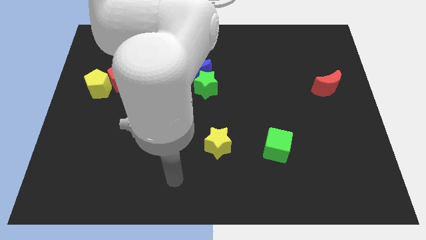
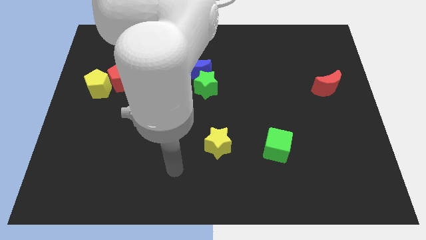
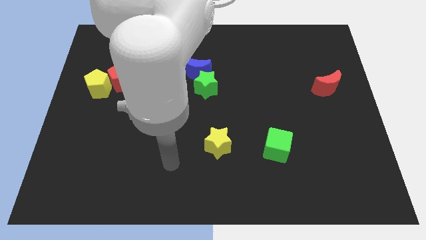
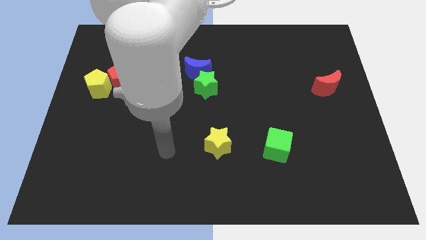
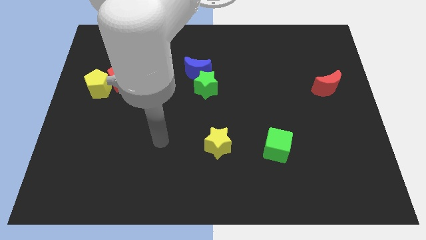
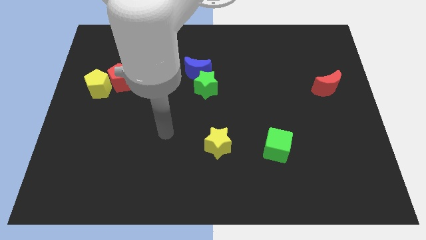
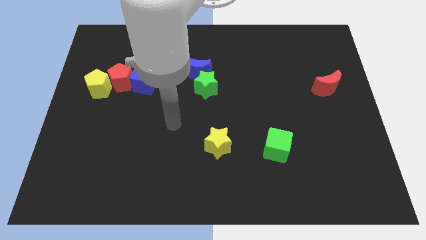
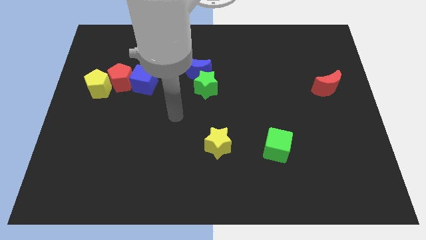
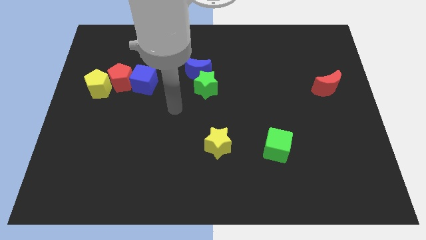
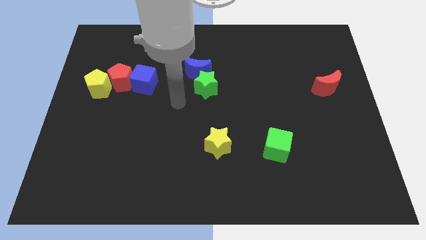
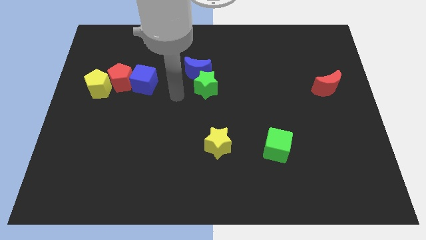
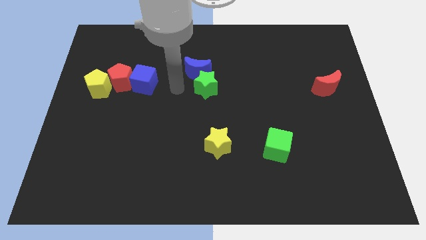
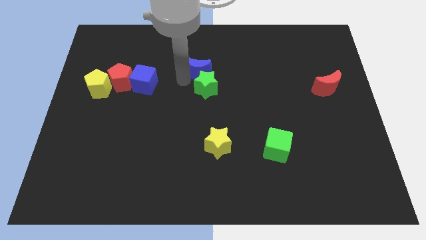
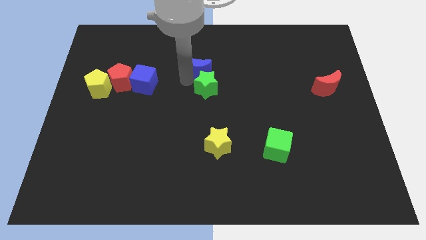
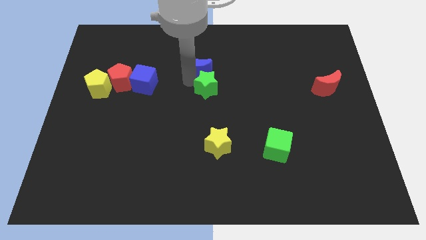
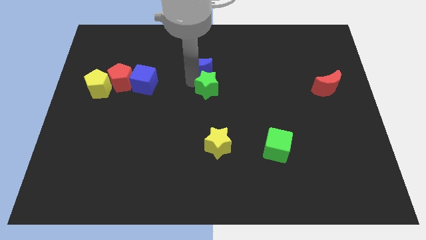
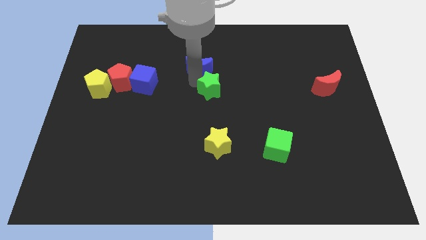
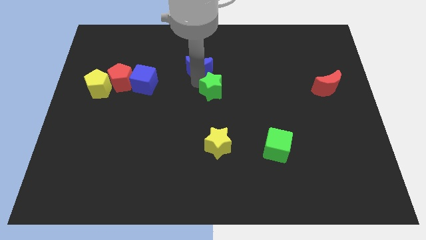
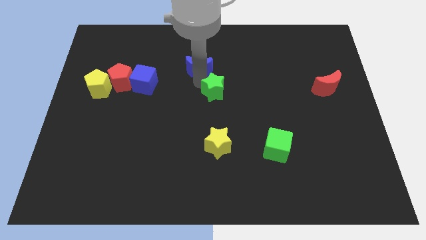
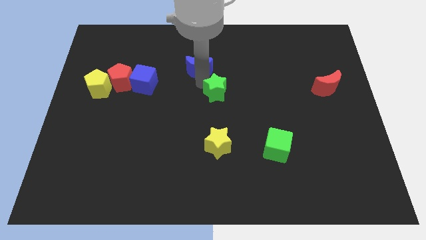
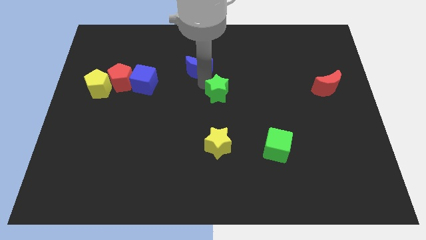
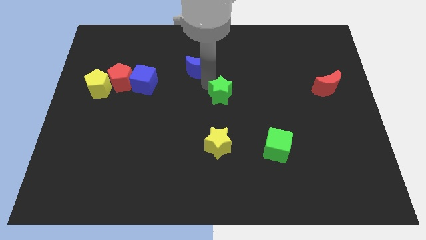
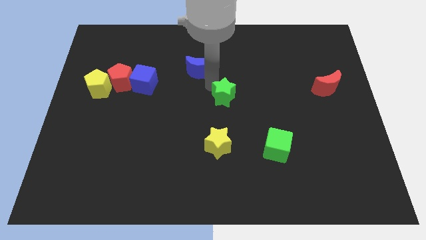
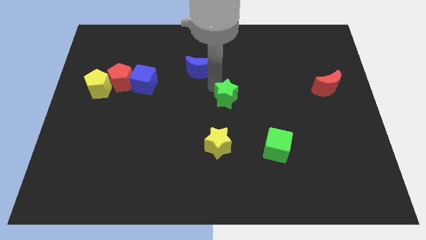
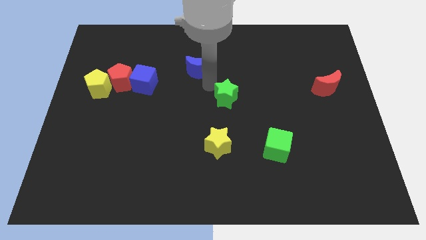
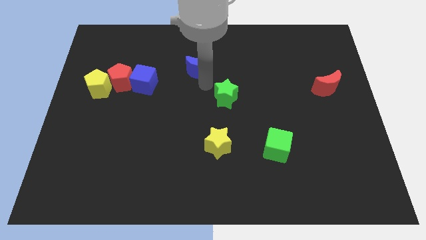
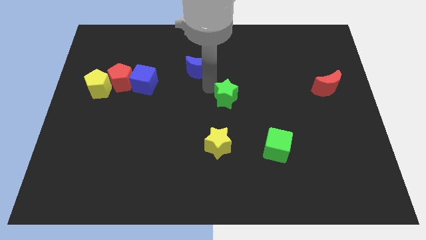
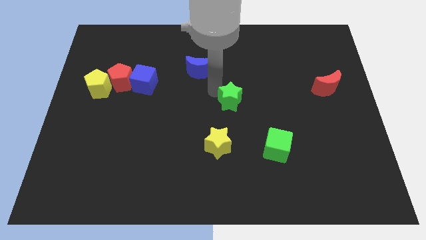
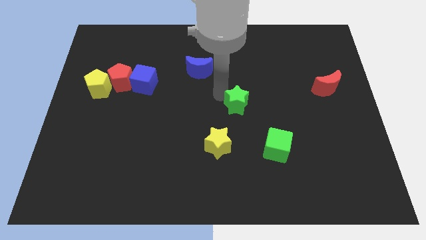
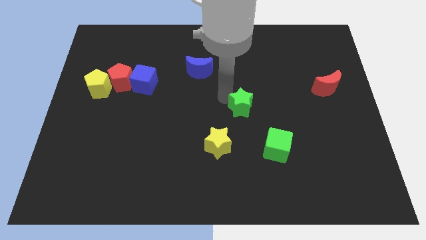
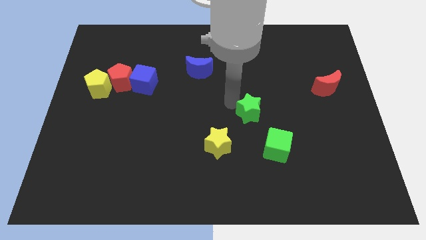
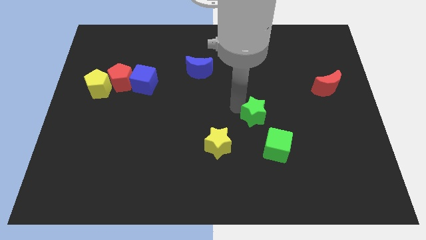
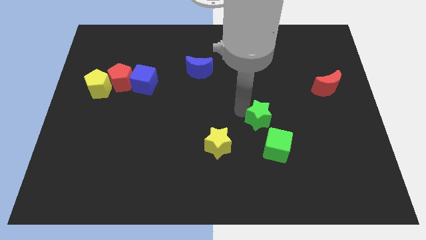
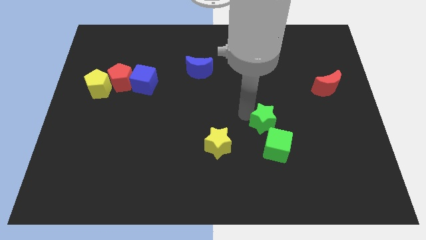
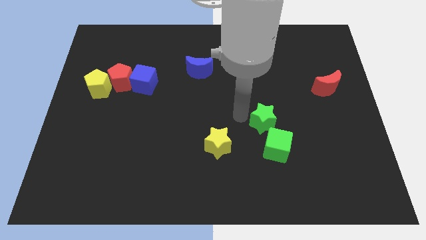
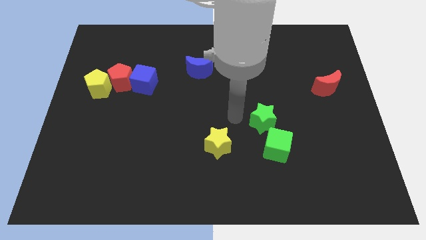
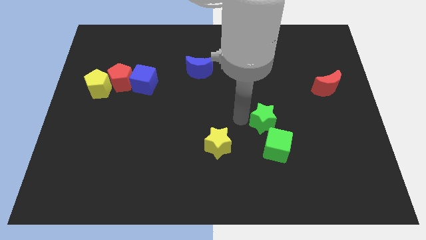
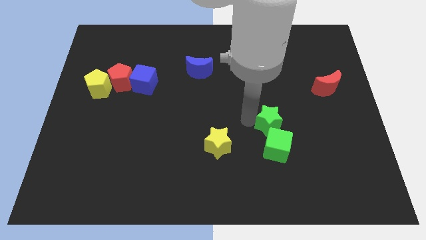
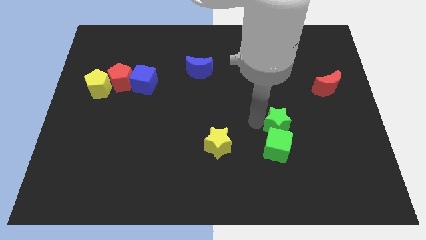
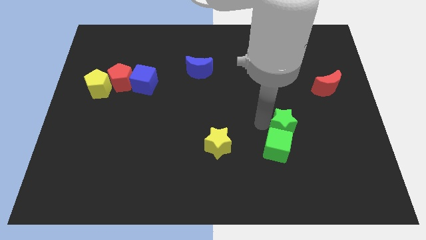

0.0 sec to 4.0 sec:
slide the green star diagonally down and right

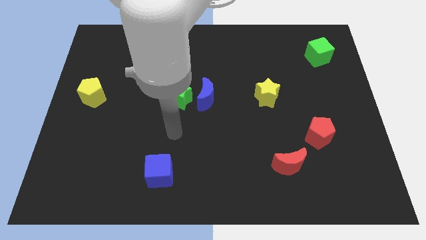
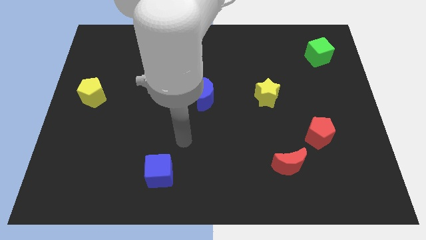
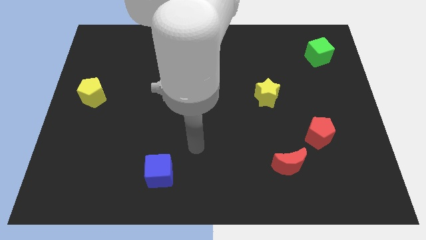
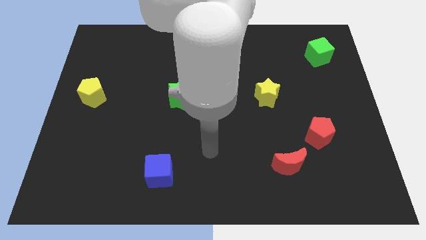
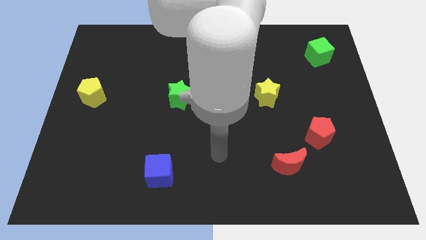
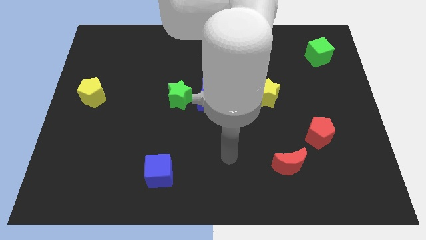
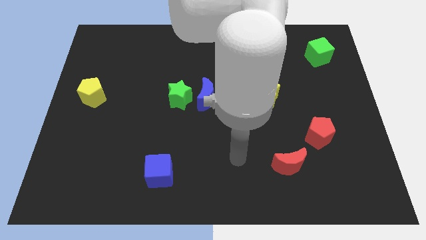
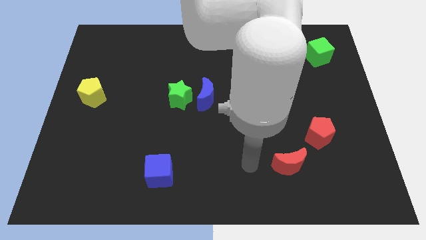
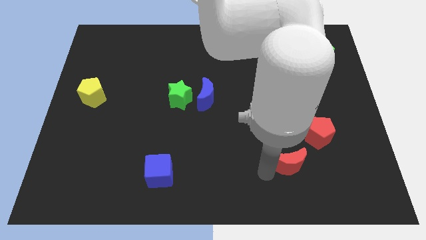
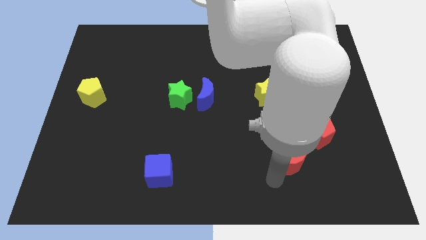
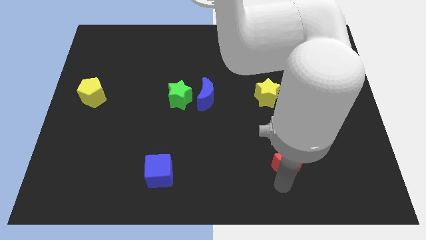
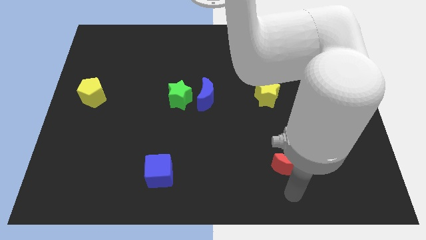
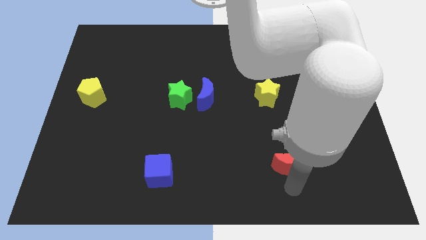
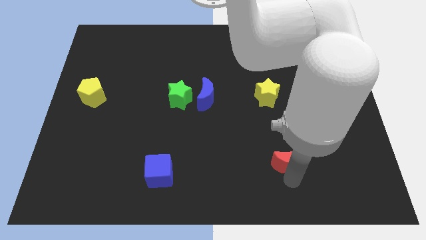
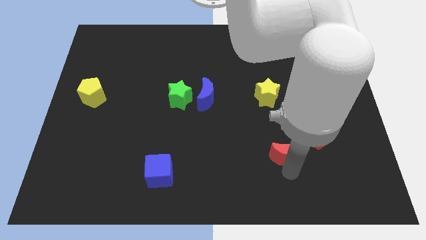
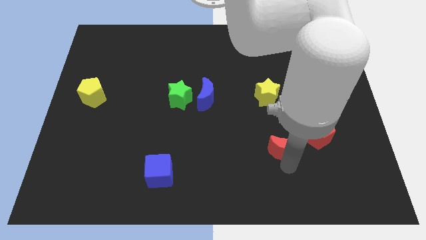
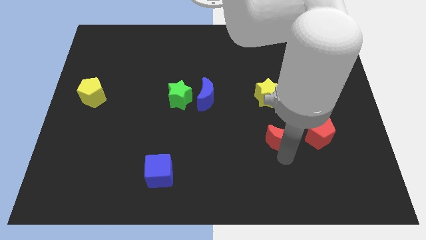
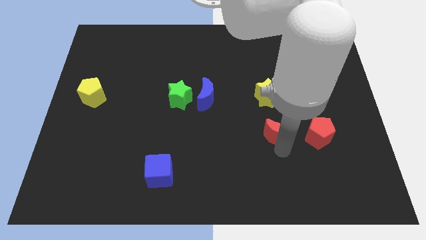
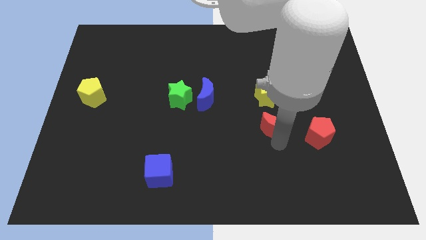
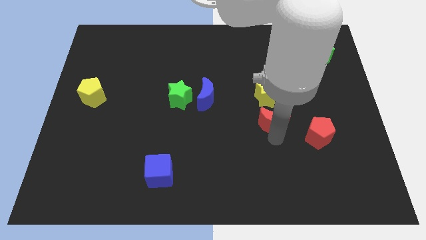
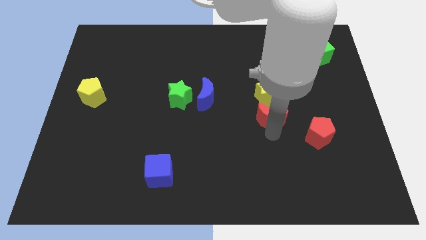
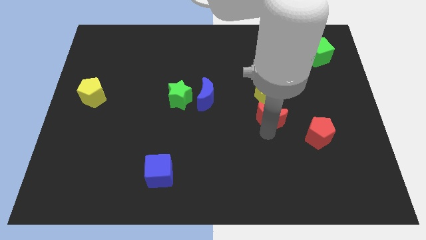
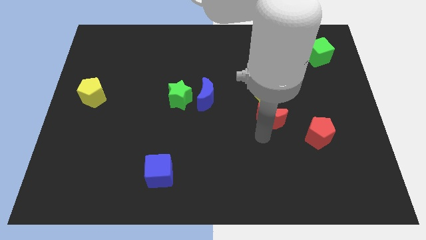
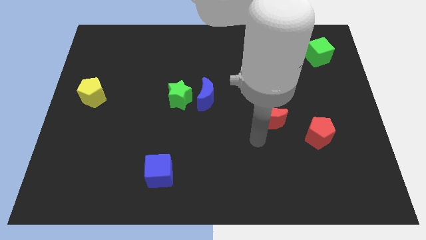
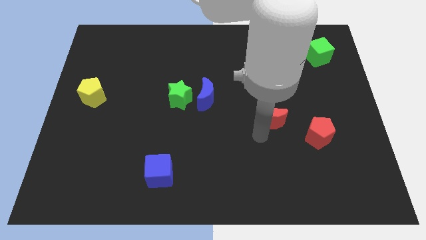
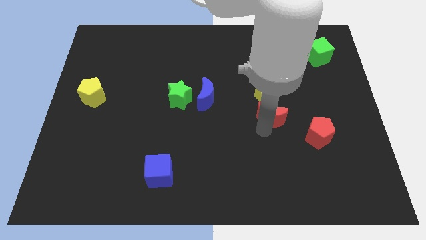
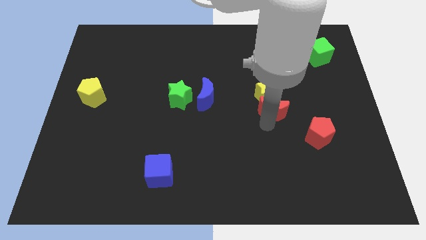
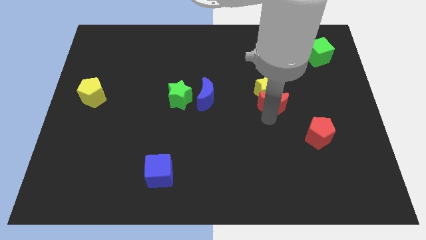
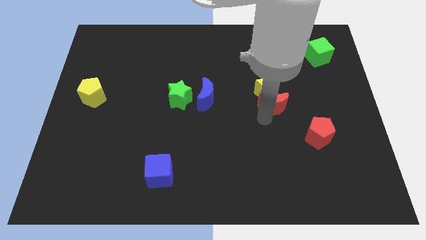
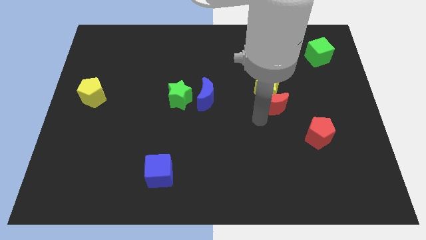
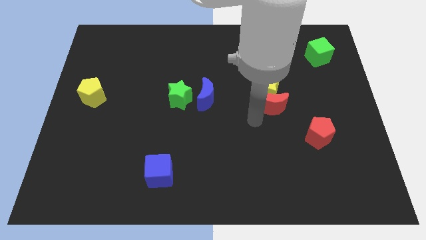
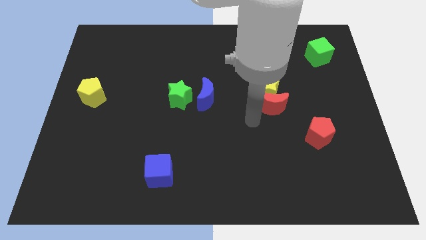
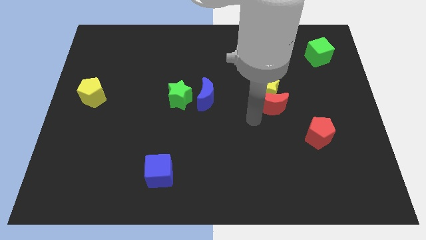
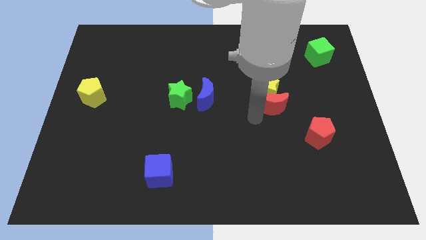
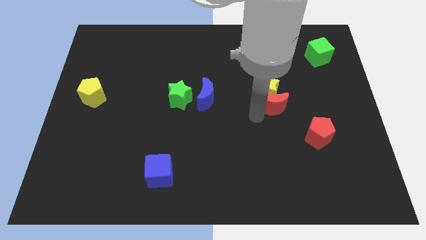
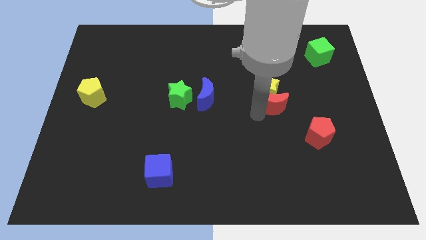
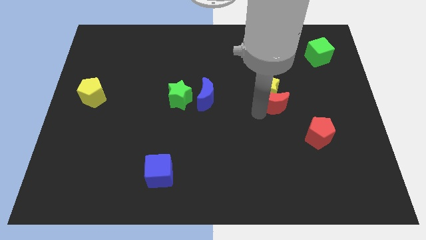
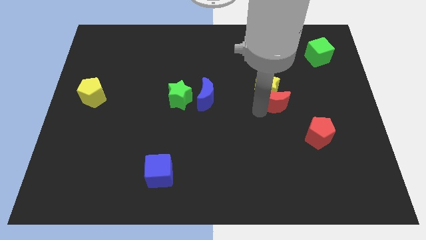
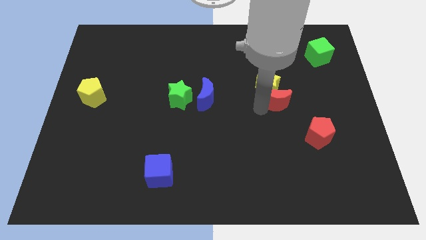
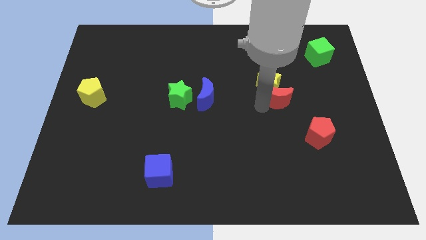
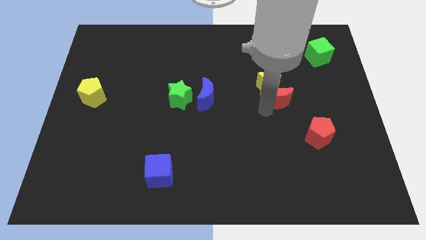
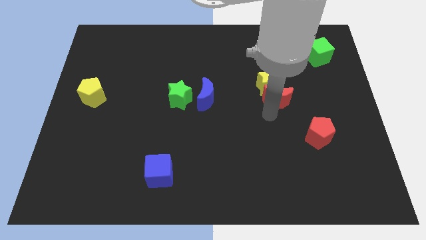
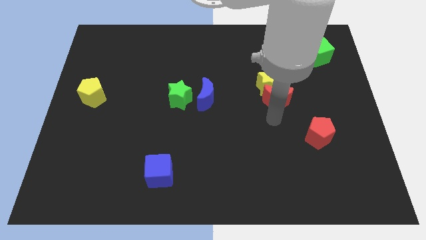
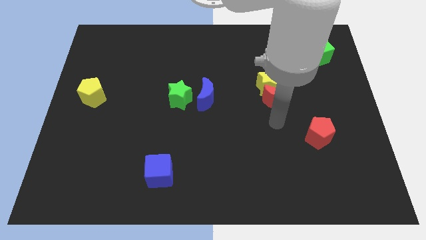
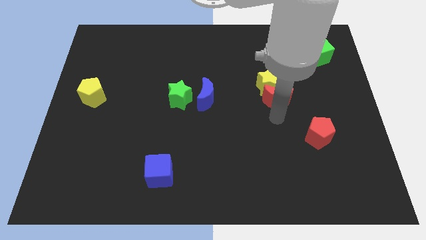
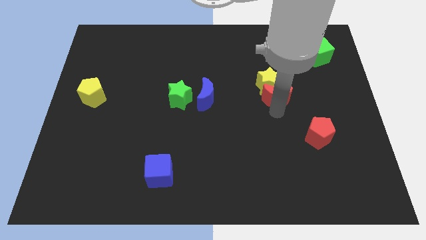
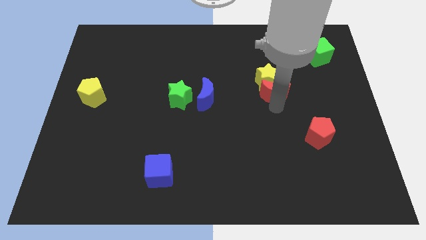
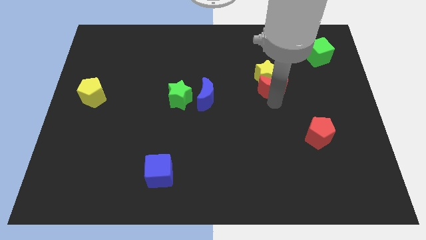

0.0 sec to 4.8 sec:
move the red moon upwards
